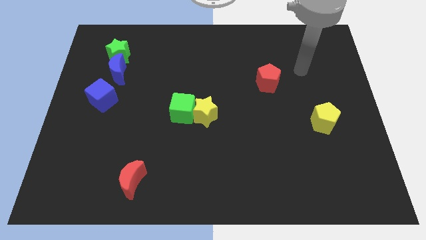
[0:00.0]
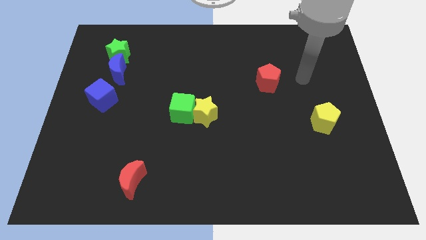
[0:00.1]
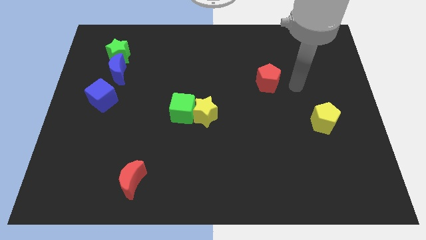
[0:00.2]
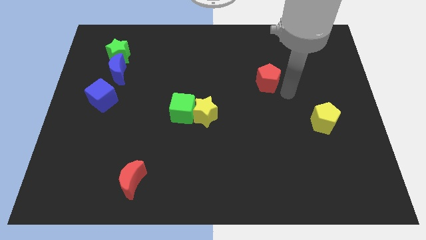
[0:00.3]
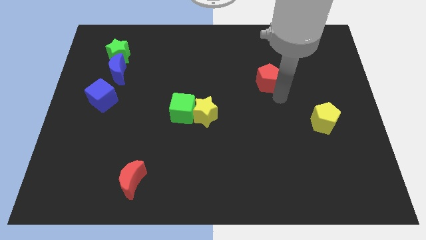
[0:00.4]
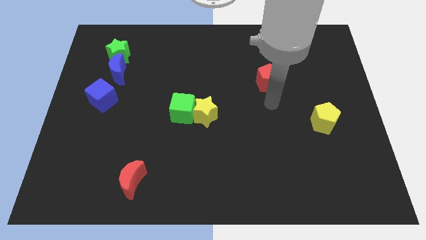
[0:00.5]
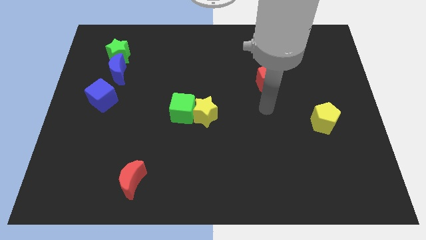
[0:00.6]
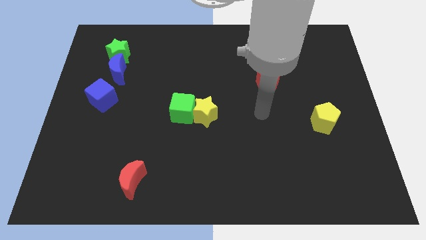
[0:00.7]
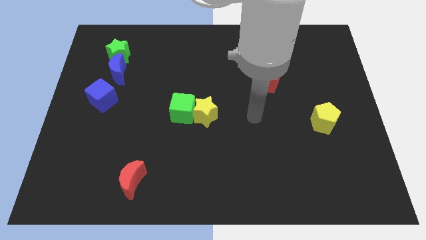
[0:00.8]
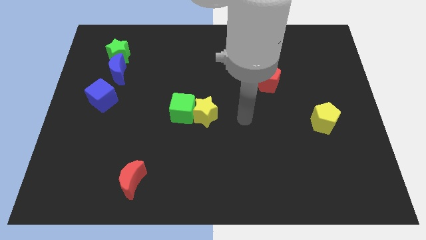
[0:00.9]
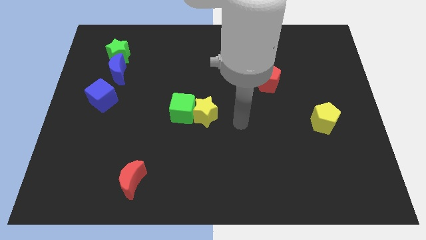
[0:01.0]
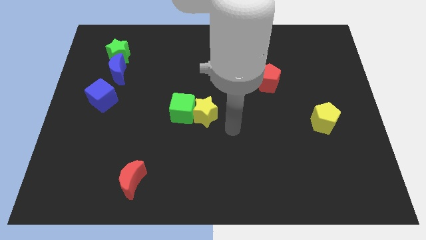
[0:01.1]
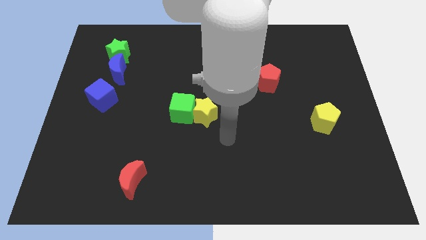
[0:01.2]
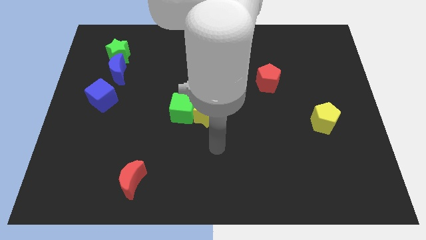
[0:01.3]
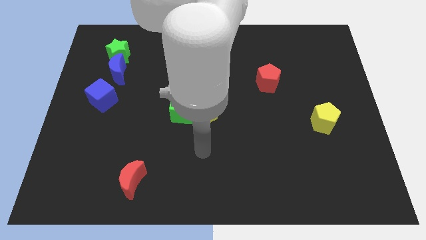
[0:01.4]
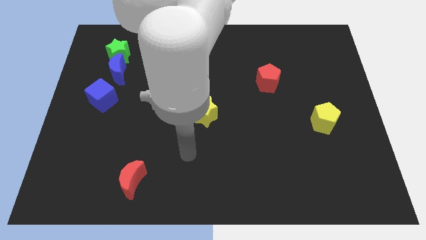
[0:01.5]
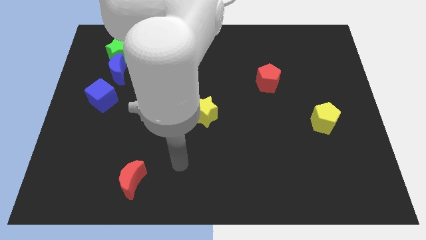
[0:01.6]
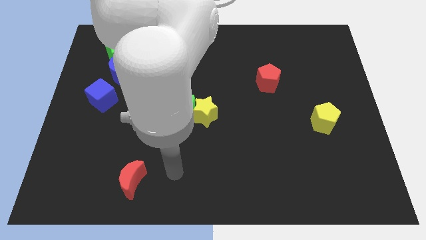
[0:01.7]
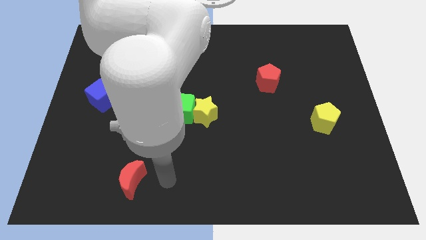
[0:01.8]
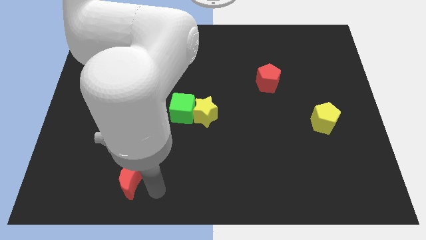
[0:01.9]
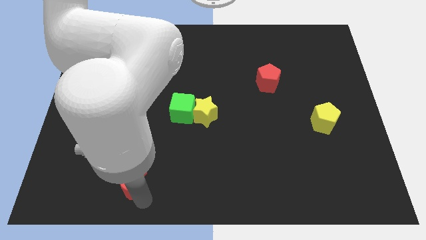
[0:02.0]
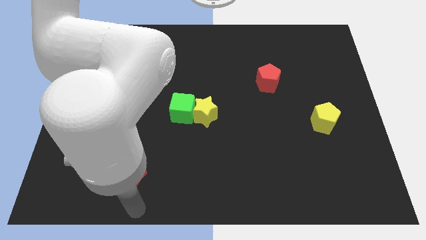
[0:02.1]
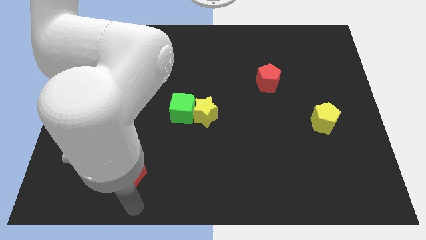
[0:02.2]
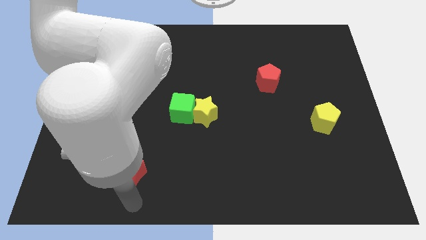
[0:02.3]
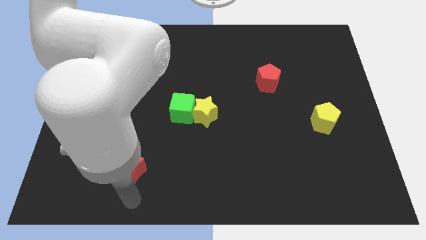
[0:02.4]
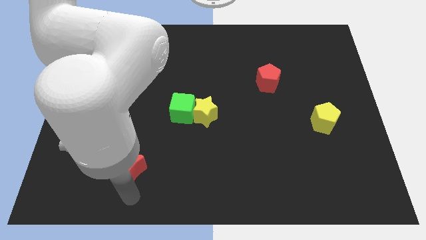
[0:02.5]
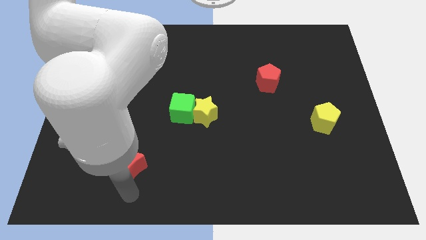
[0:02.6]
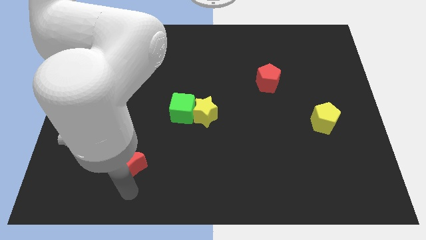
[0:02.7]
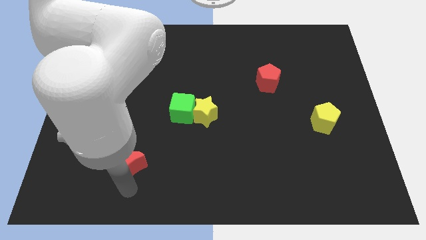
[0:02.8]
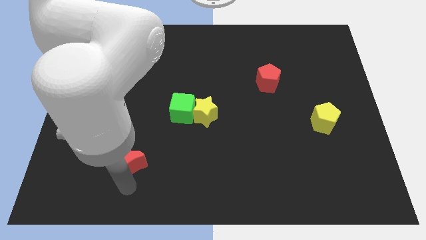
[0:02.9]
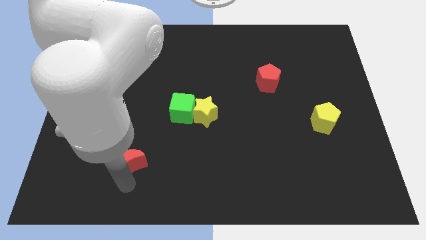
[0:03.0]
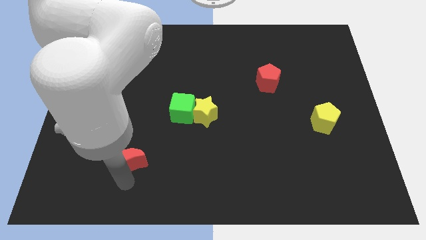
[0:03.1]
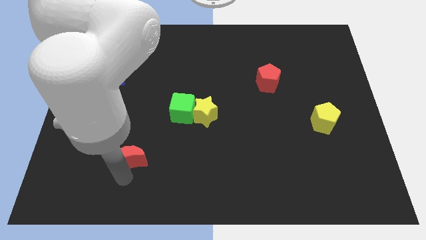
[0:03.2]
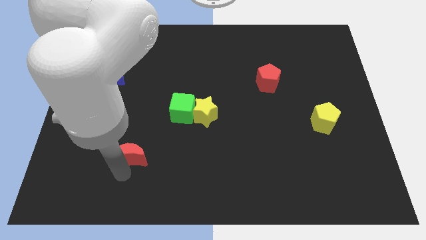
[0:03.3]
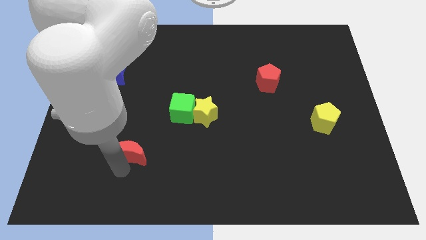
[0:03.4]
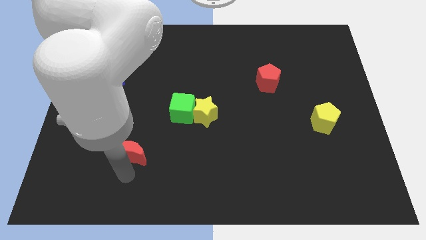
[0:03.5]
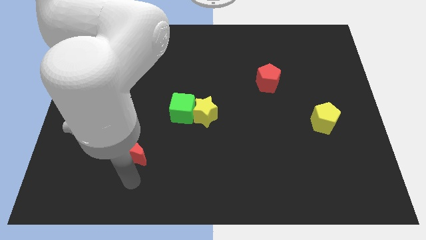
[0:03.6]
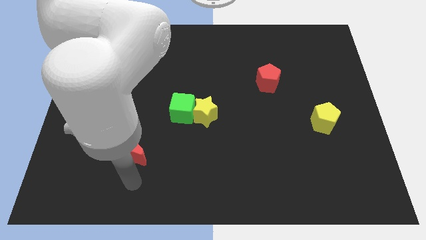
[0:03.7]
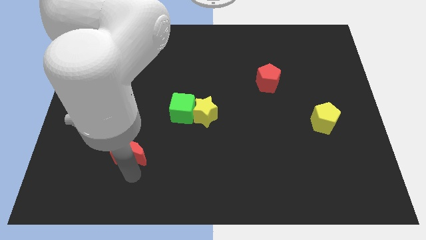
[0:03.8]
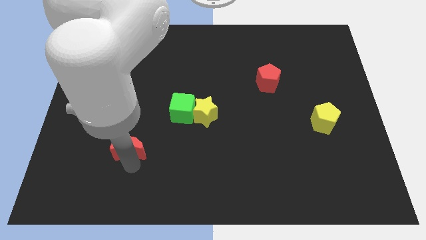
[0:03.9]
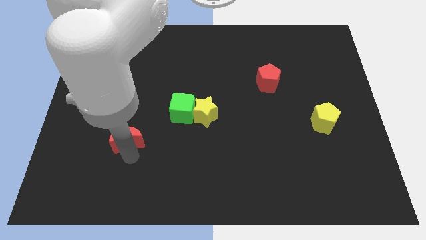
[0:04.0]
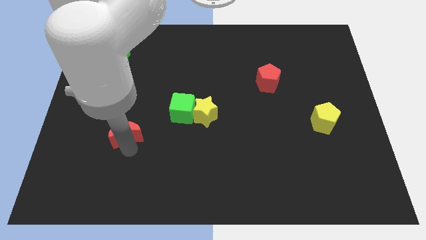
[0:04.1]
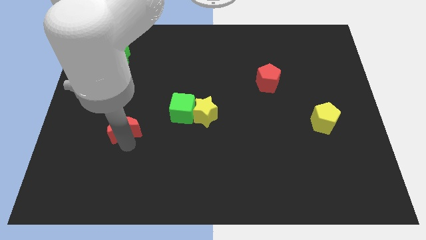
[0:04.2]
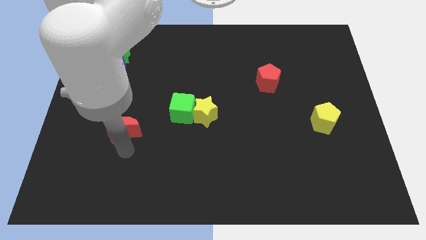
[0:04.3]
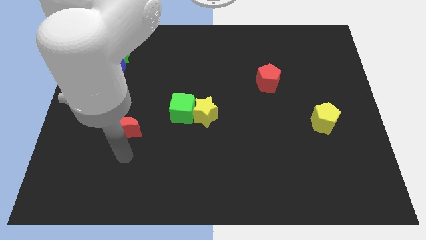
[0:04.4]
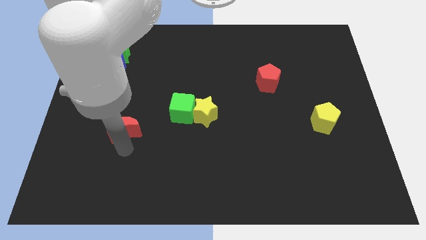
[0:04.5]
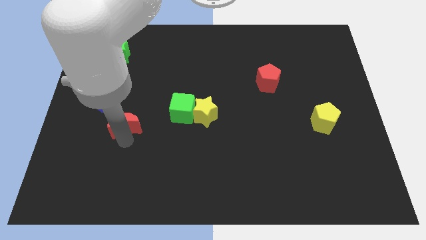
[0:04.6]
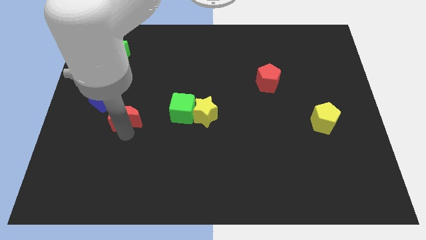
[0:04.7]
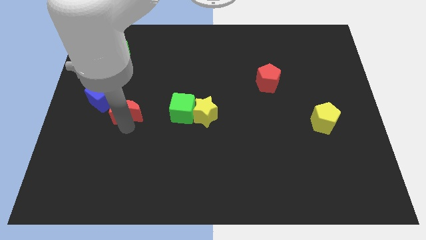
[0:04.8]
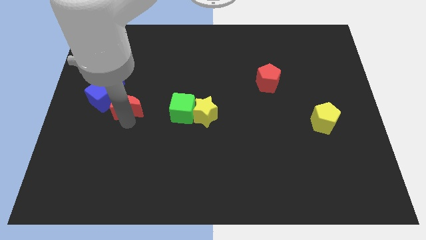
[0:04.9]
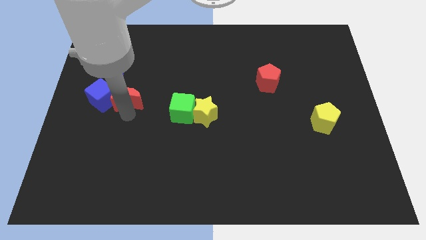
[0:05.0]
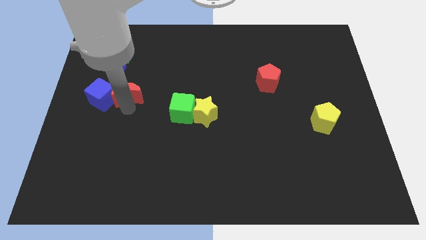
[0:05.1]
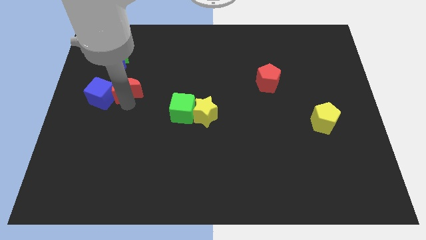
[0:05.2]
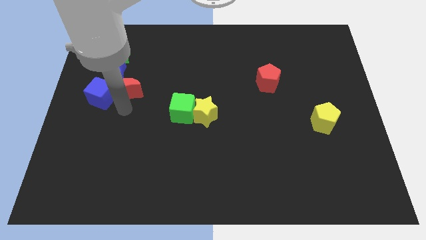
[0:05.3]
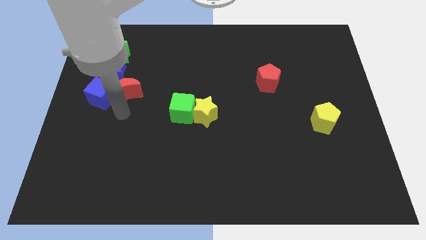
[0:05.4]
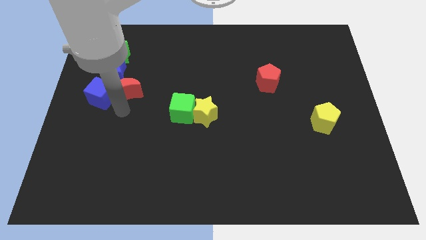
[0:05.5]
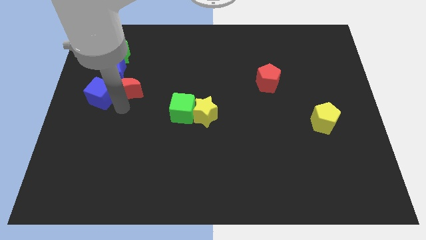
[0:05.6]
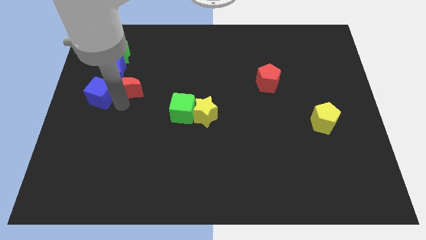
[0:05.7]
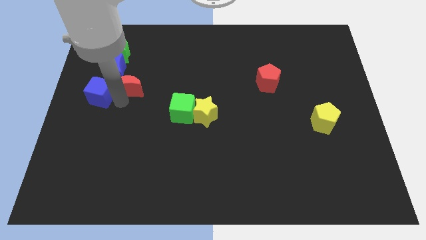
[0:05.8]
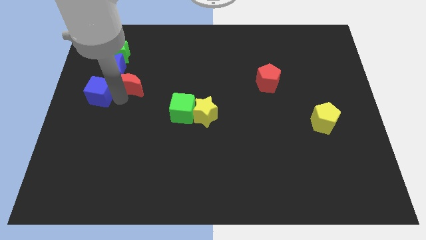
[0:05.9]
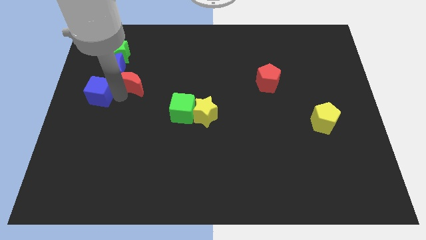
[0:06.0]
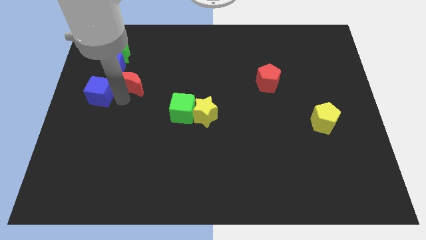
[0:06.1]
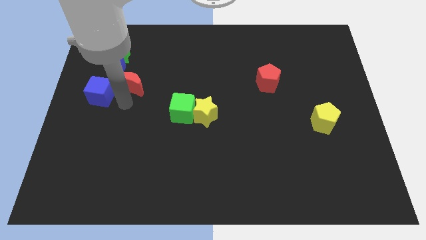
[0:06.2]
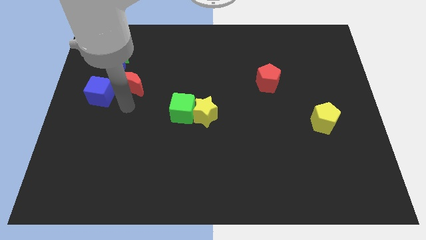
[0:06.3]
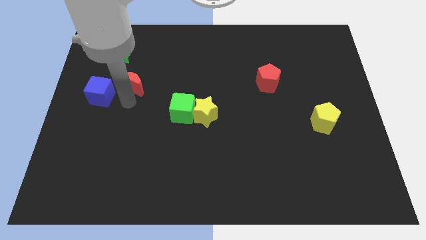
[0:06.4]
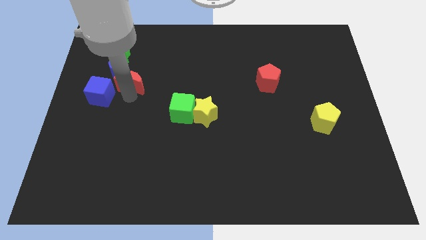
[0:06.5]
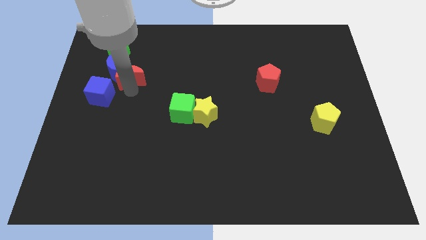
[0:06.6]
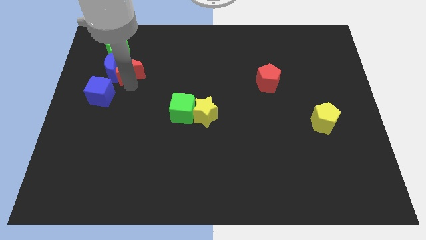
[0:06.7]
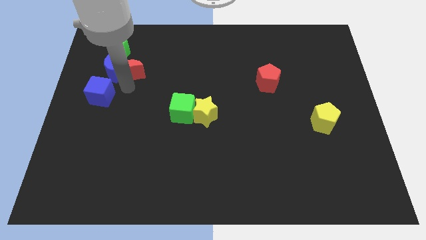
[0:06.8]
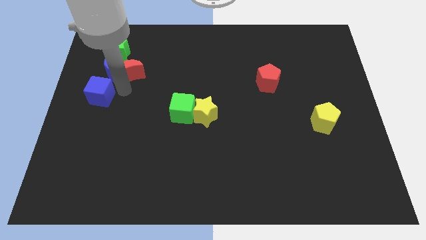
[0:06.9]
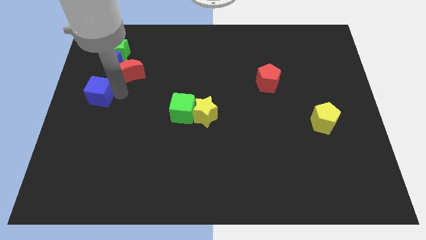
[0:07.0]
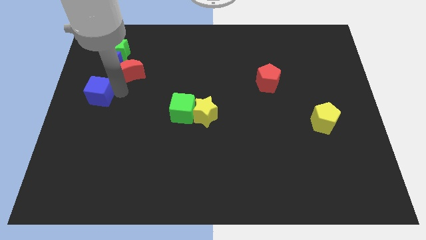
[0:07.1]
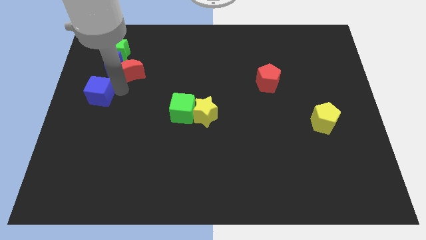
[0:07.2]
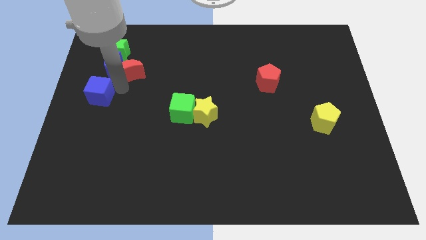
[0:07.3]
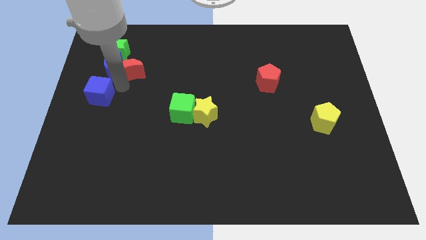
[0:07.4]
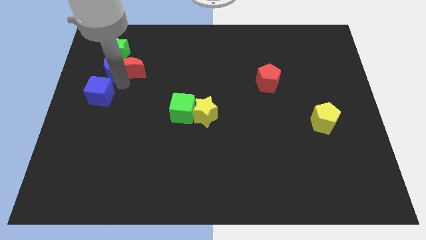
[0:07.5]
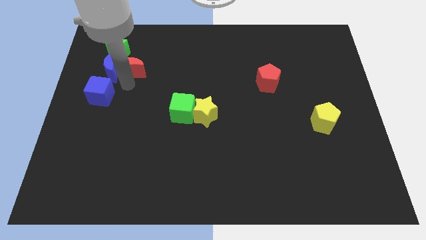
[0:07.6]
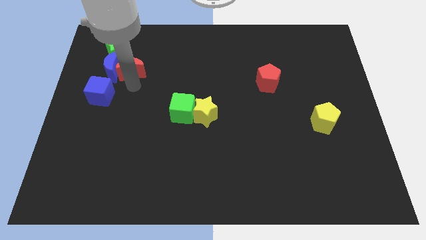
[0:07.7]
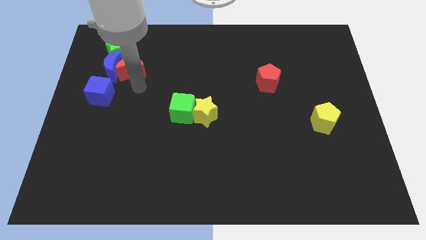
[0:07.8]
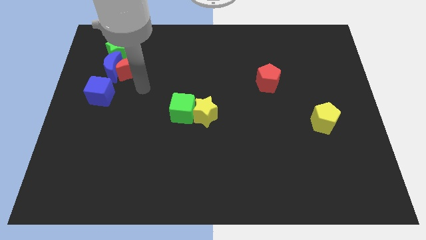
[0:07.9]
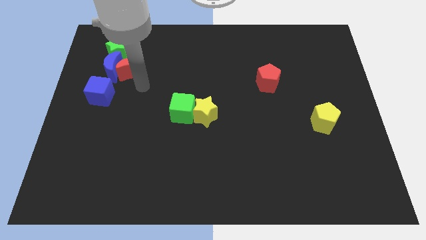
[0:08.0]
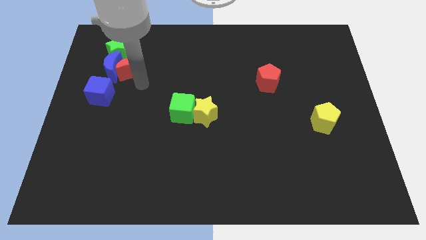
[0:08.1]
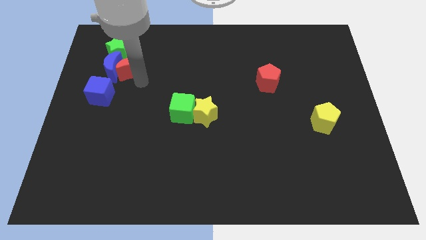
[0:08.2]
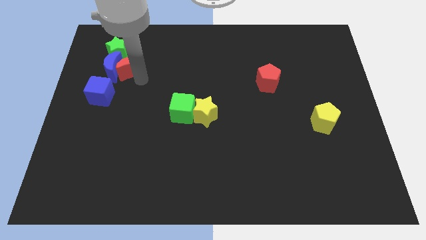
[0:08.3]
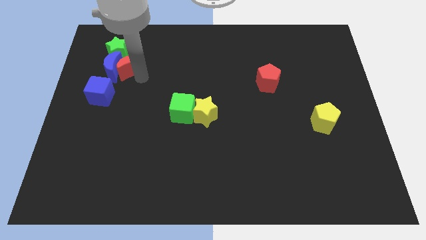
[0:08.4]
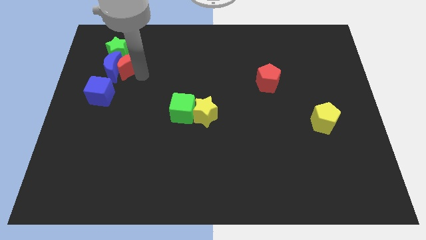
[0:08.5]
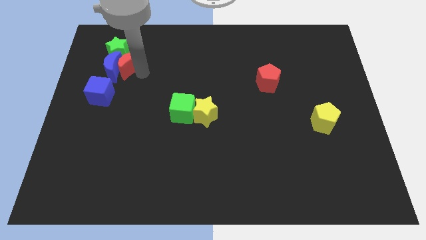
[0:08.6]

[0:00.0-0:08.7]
slide the red moon towards the green star
